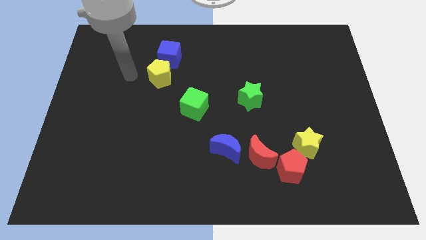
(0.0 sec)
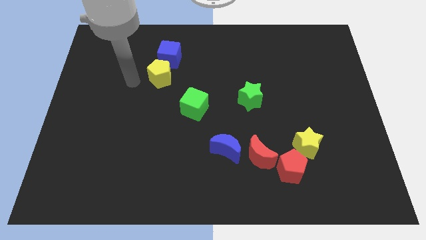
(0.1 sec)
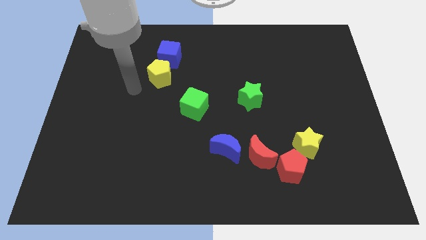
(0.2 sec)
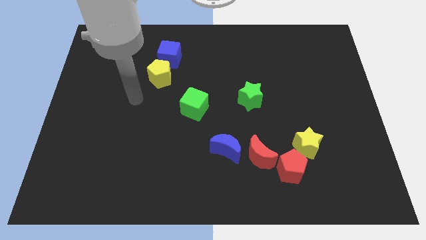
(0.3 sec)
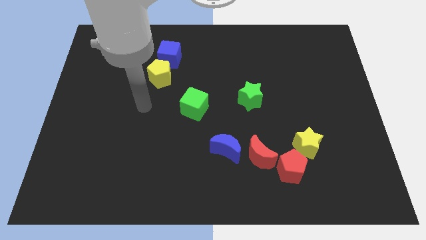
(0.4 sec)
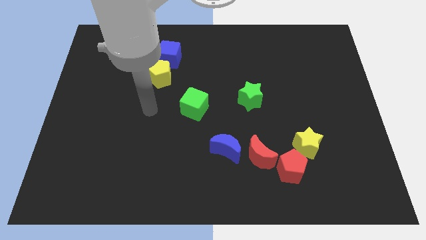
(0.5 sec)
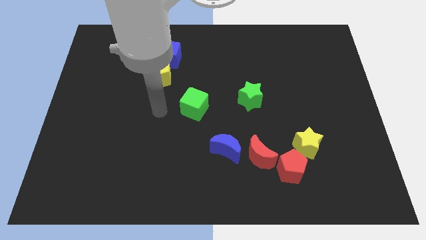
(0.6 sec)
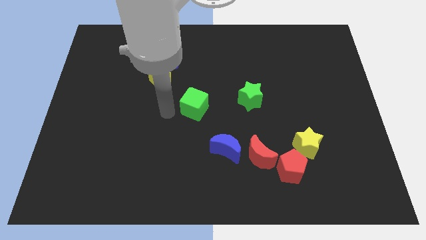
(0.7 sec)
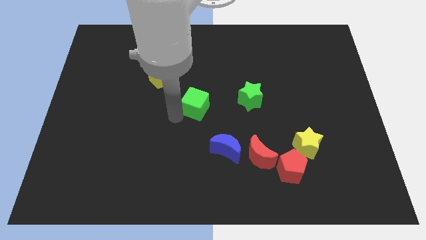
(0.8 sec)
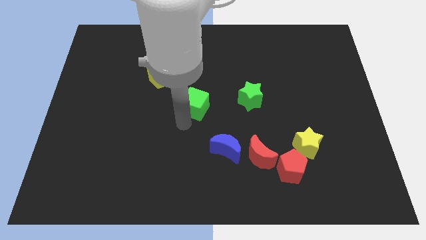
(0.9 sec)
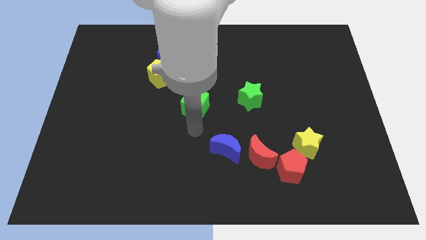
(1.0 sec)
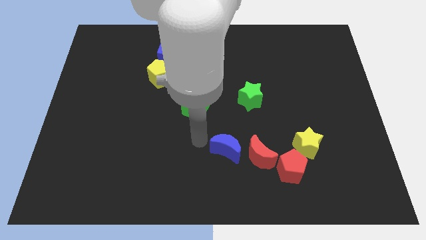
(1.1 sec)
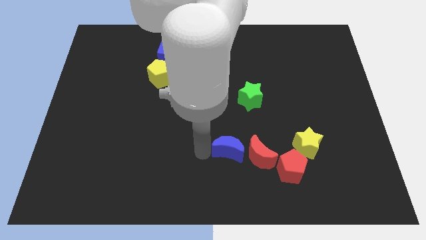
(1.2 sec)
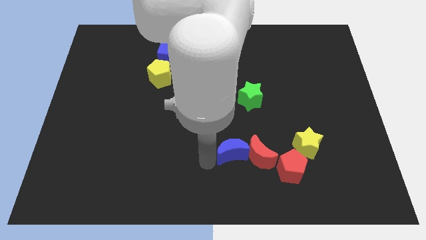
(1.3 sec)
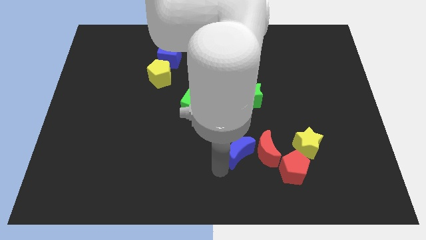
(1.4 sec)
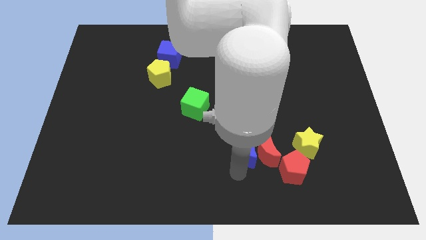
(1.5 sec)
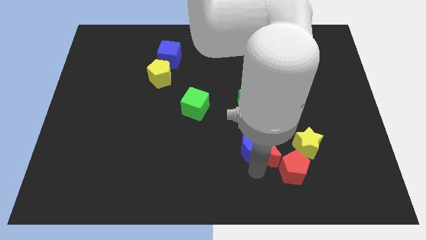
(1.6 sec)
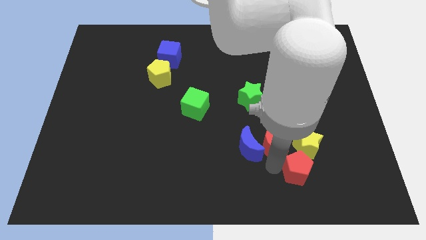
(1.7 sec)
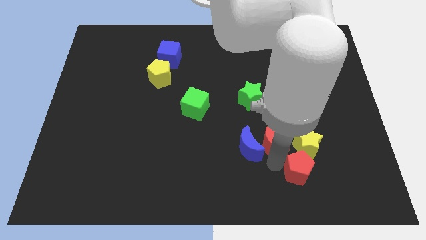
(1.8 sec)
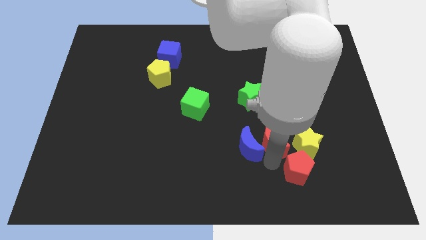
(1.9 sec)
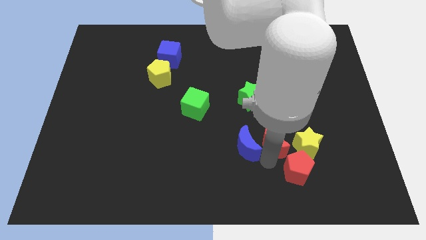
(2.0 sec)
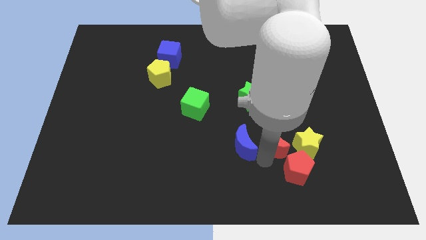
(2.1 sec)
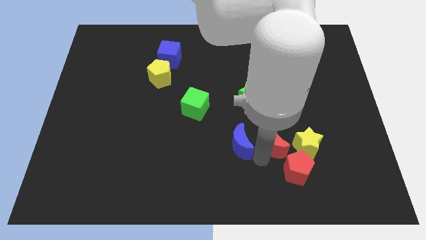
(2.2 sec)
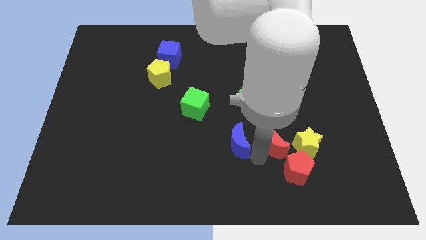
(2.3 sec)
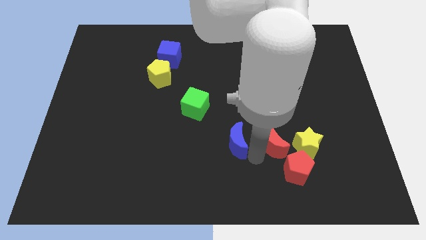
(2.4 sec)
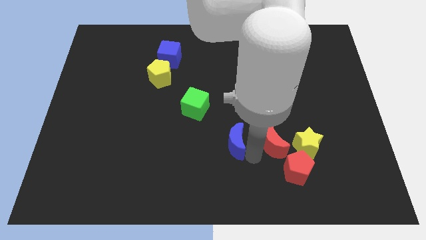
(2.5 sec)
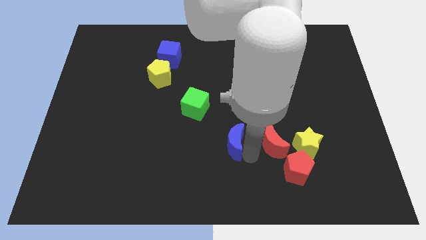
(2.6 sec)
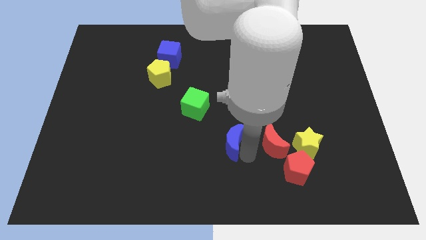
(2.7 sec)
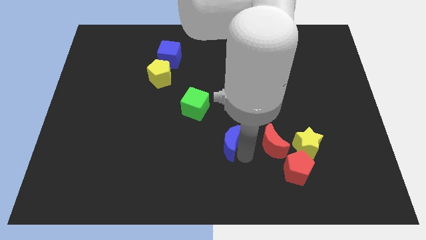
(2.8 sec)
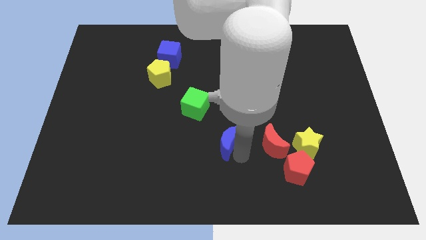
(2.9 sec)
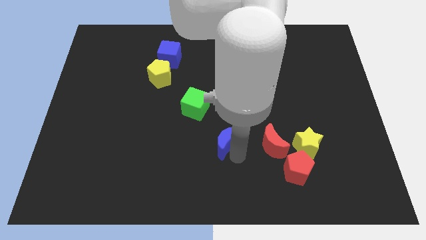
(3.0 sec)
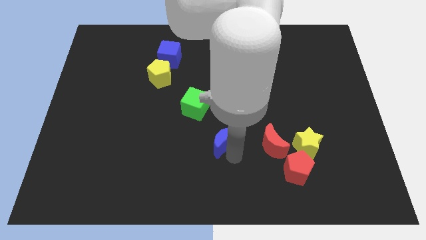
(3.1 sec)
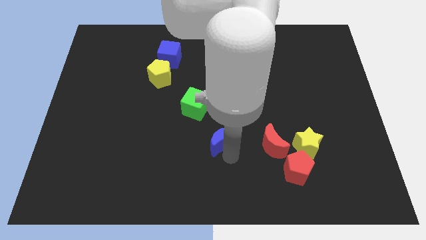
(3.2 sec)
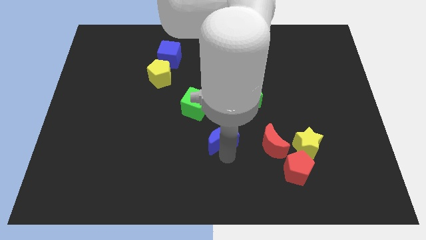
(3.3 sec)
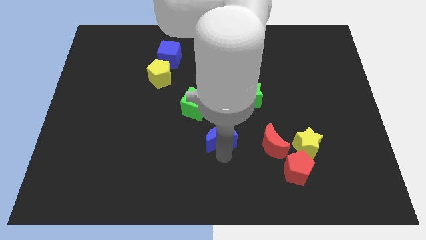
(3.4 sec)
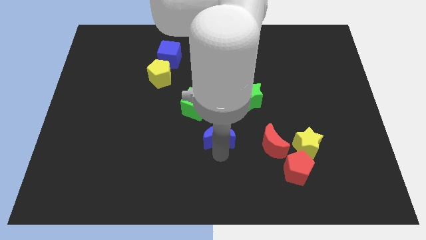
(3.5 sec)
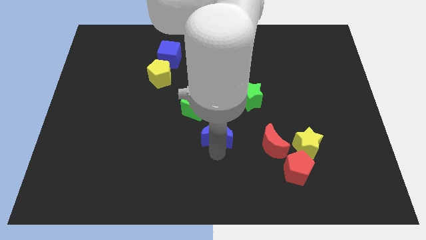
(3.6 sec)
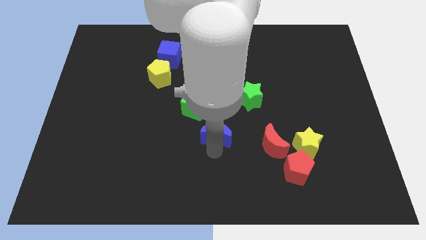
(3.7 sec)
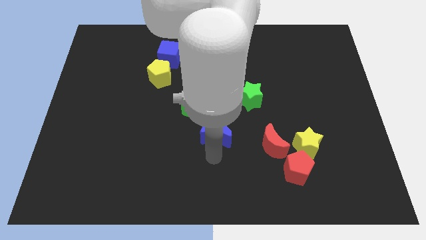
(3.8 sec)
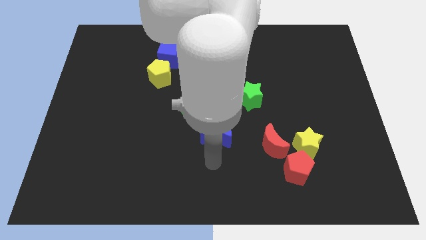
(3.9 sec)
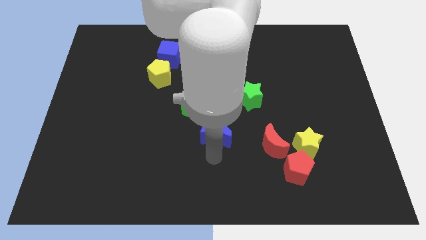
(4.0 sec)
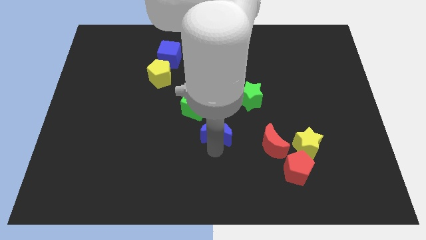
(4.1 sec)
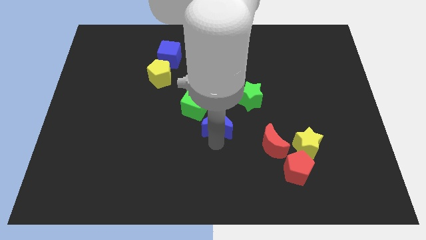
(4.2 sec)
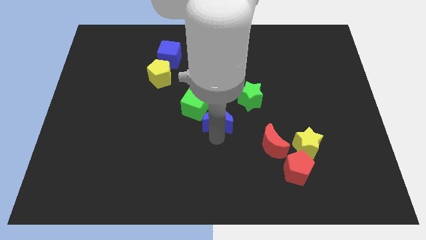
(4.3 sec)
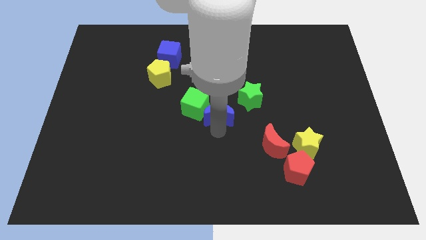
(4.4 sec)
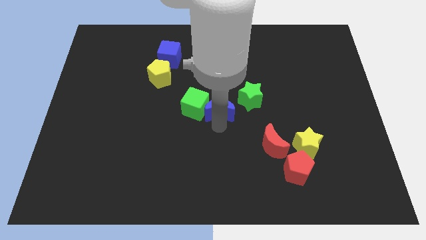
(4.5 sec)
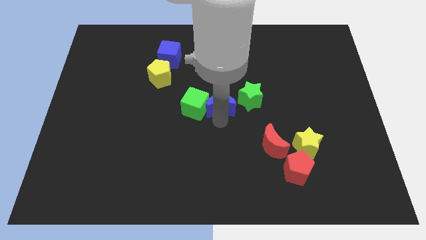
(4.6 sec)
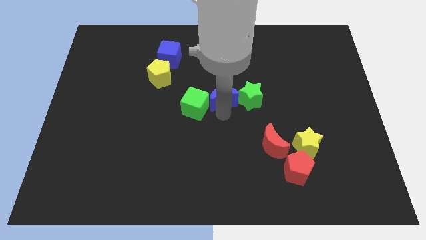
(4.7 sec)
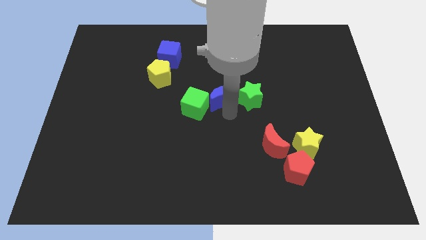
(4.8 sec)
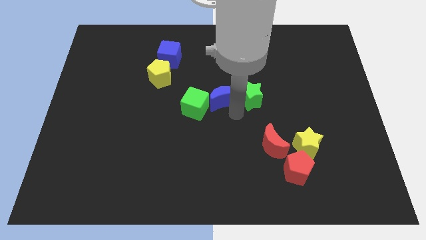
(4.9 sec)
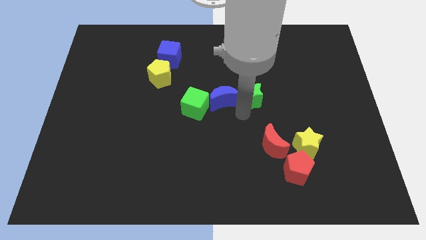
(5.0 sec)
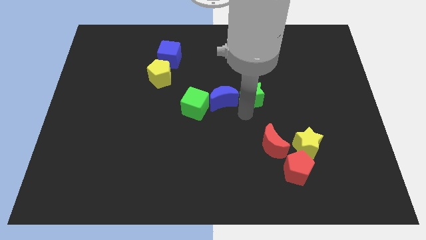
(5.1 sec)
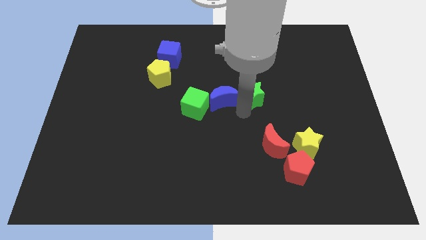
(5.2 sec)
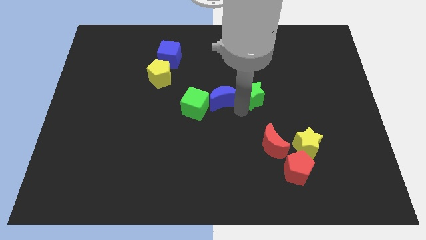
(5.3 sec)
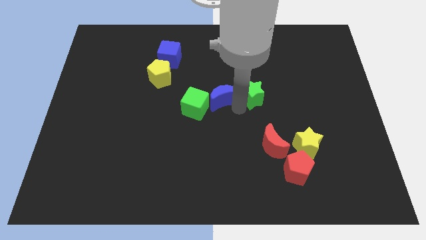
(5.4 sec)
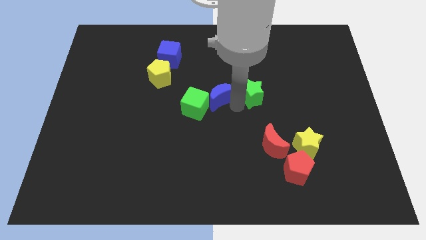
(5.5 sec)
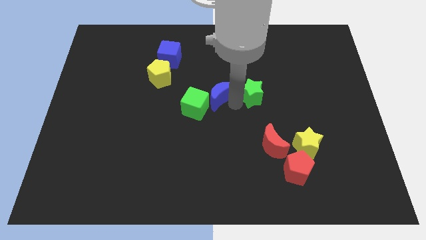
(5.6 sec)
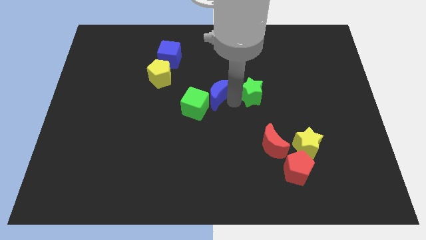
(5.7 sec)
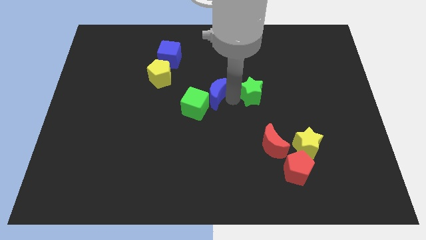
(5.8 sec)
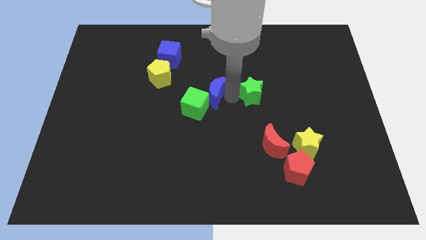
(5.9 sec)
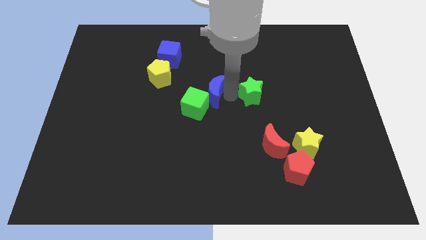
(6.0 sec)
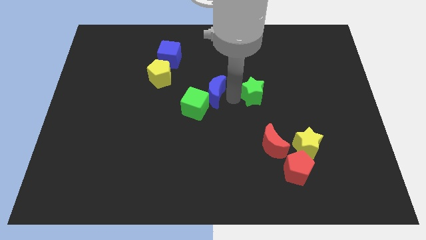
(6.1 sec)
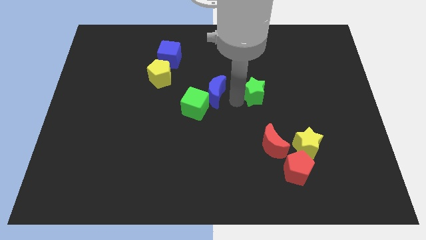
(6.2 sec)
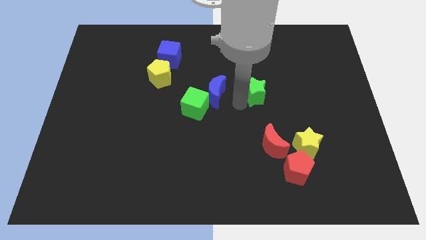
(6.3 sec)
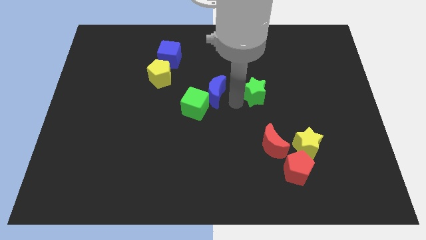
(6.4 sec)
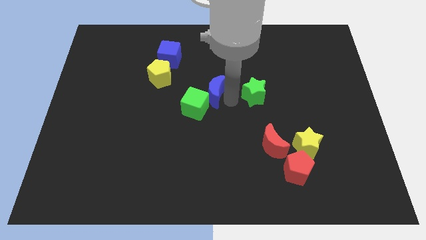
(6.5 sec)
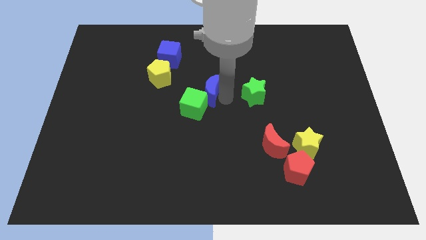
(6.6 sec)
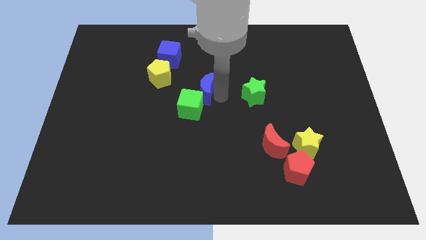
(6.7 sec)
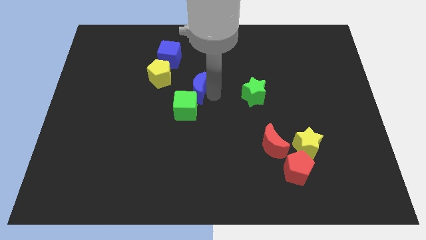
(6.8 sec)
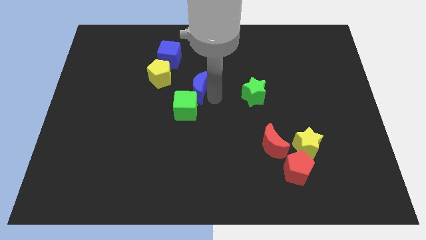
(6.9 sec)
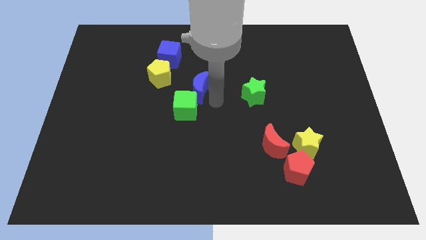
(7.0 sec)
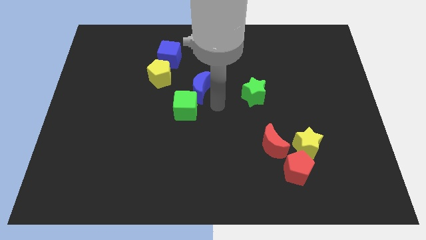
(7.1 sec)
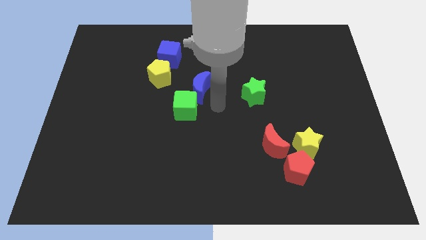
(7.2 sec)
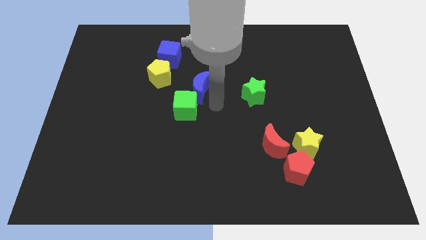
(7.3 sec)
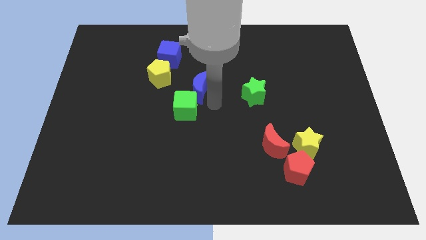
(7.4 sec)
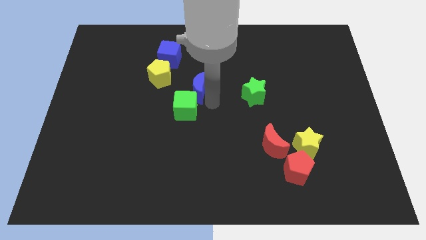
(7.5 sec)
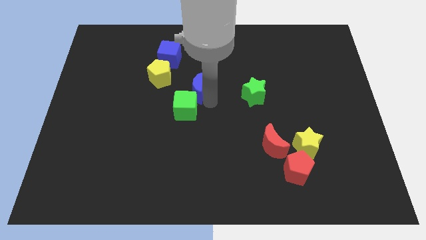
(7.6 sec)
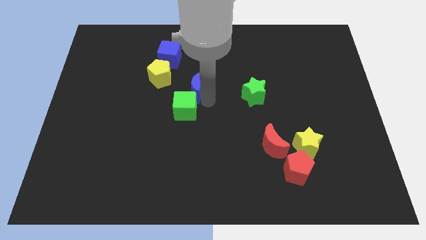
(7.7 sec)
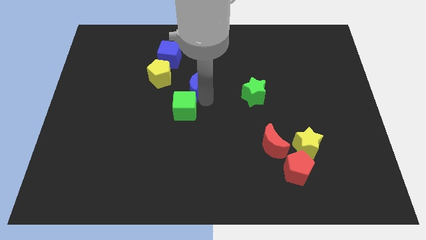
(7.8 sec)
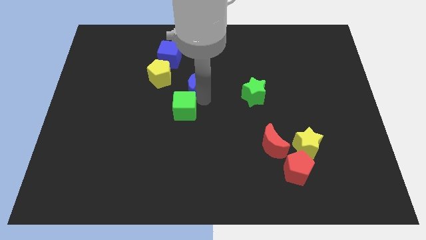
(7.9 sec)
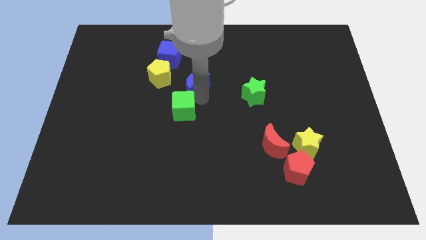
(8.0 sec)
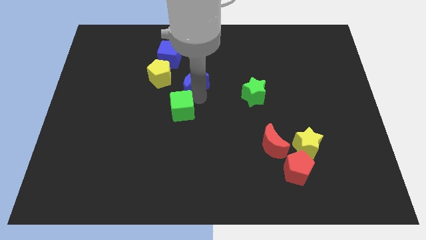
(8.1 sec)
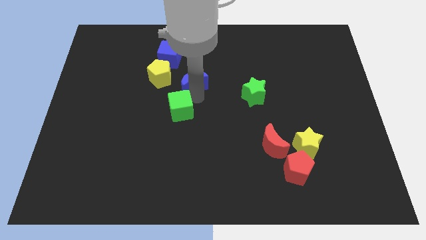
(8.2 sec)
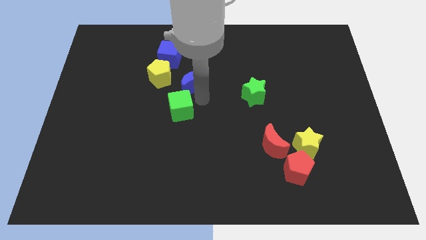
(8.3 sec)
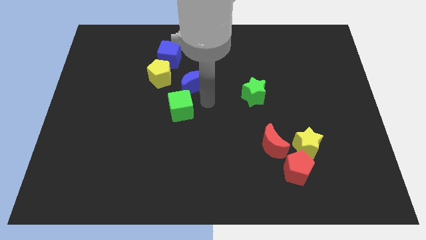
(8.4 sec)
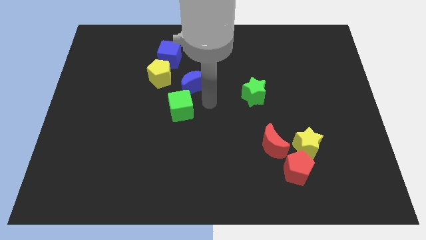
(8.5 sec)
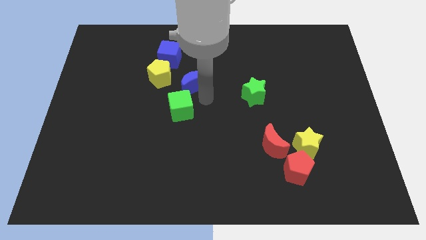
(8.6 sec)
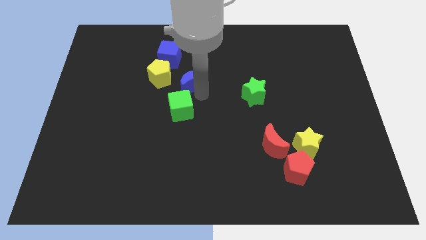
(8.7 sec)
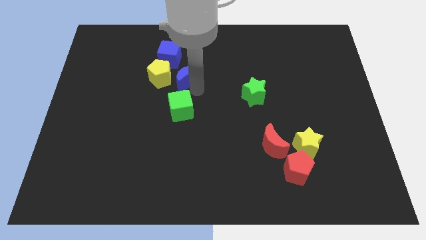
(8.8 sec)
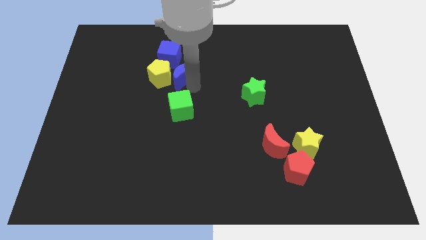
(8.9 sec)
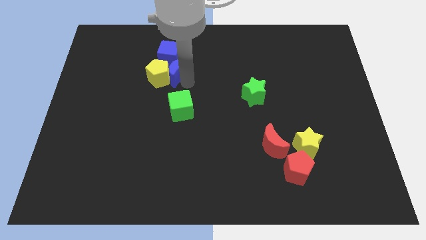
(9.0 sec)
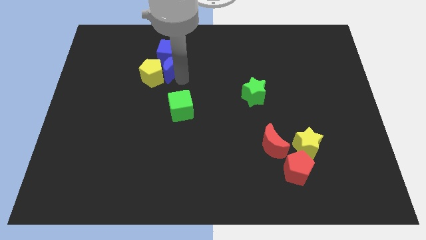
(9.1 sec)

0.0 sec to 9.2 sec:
slide the blue moon to the blue cube
